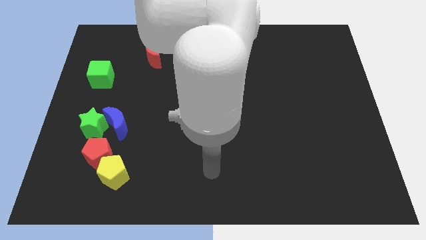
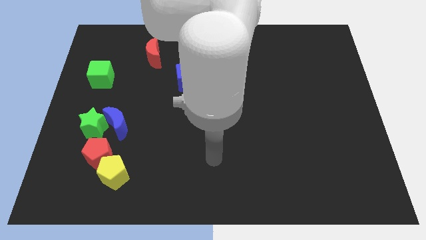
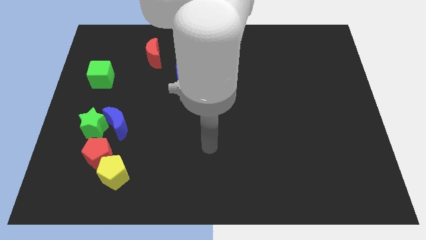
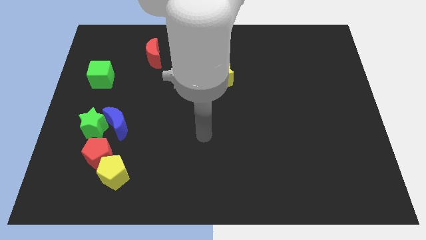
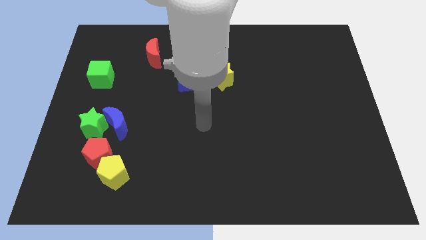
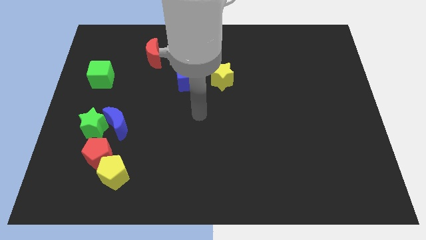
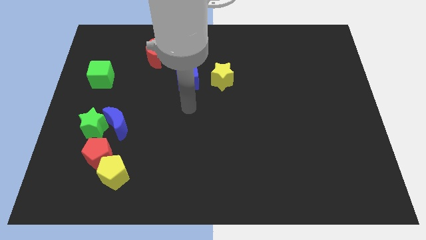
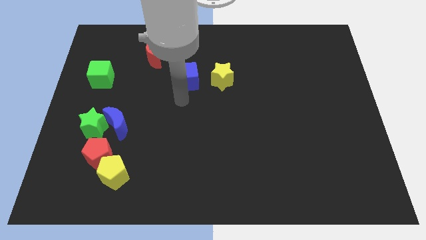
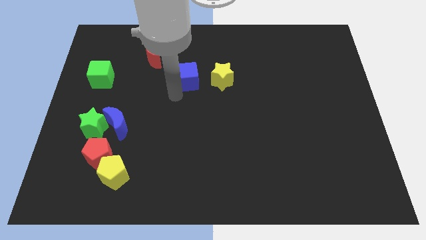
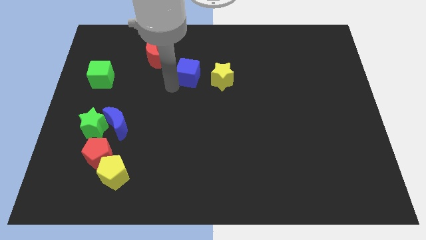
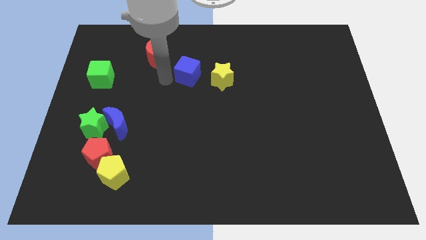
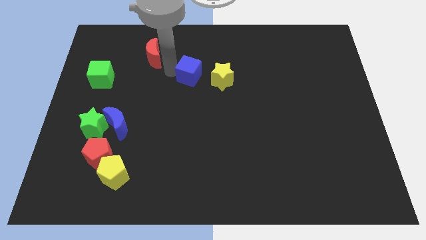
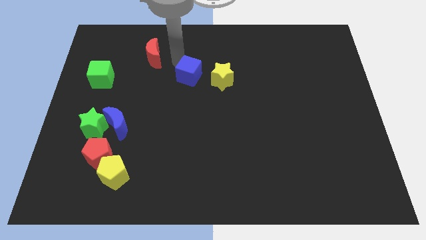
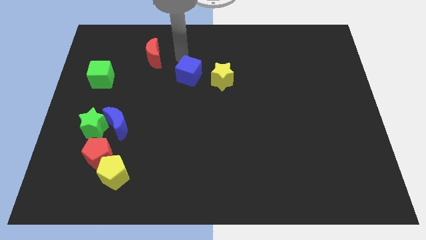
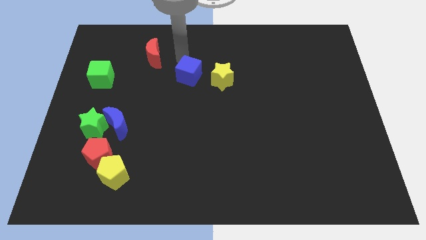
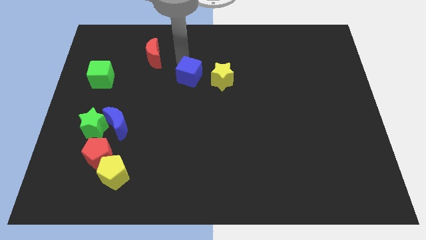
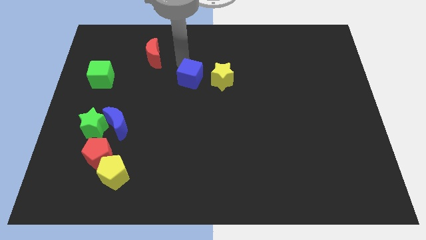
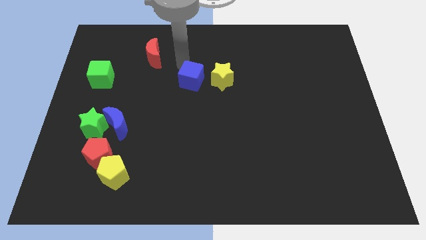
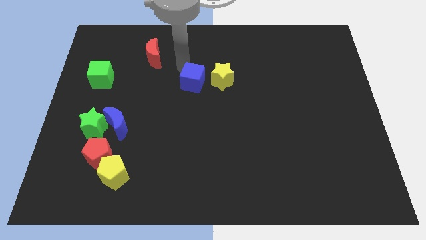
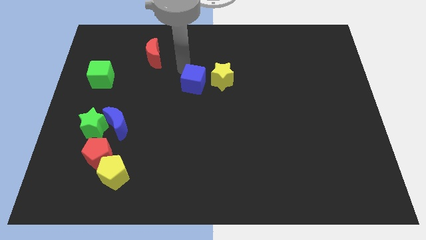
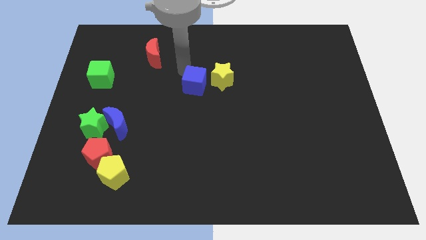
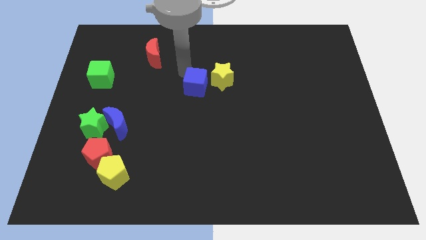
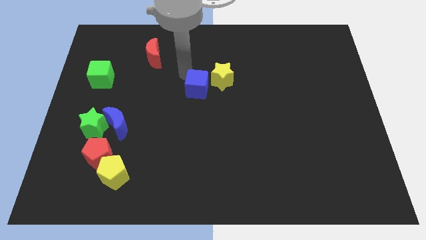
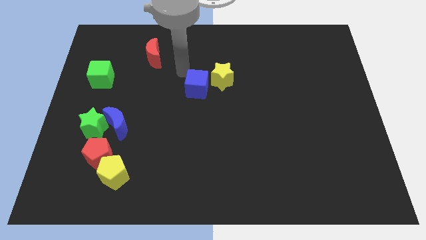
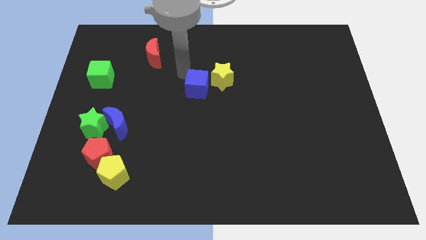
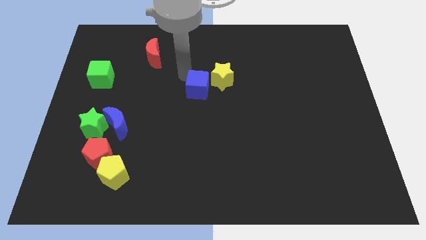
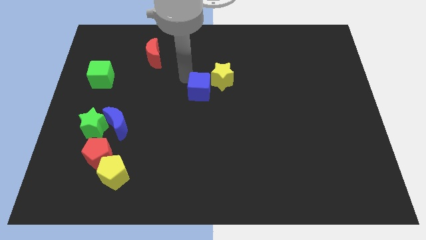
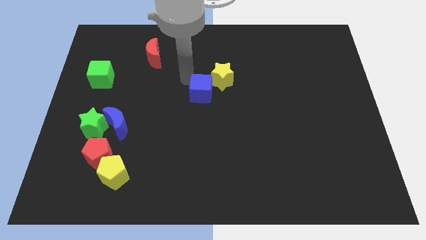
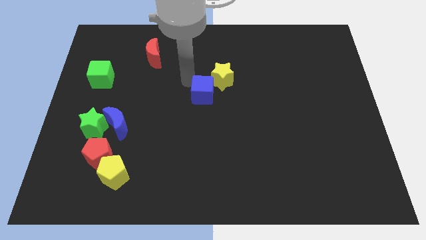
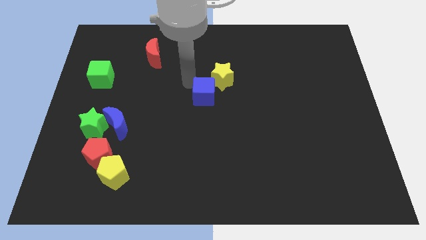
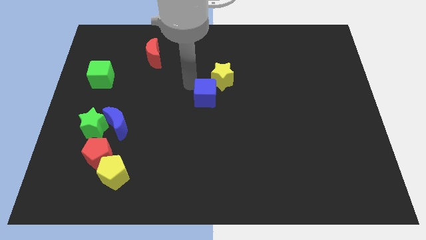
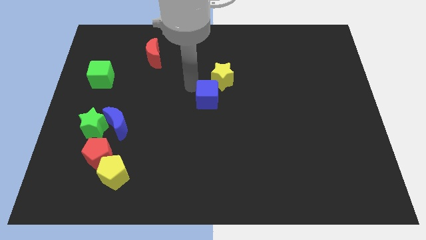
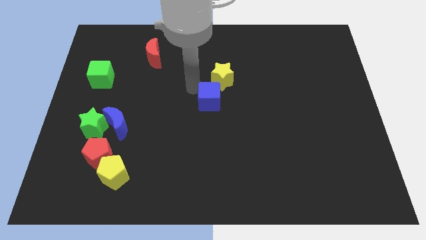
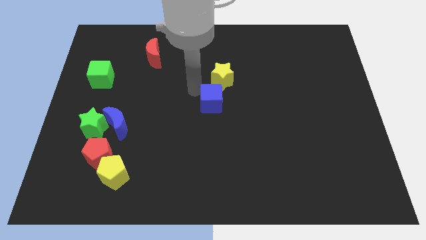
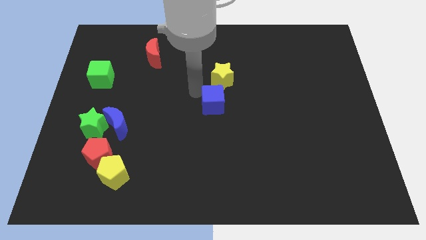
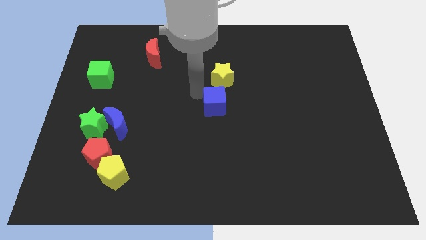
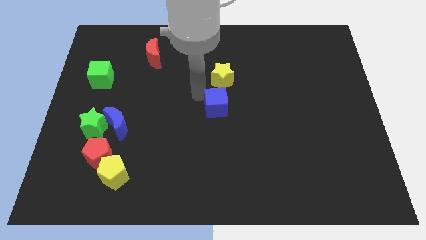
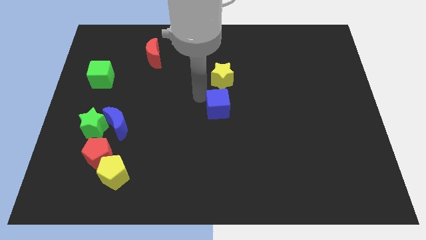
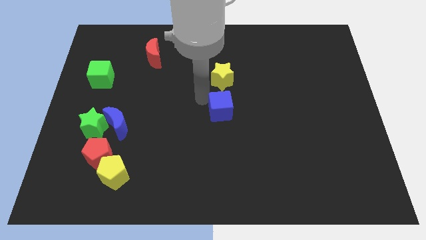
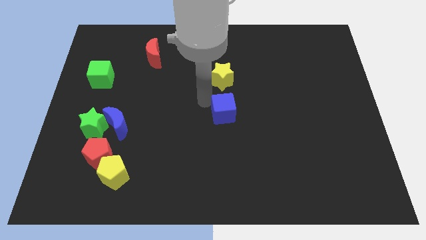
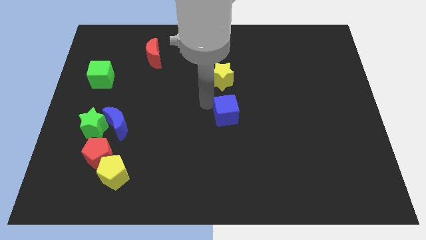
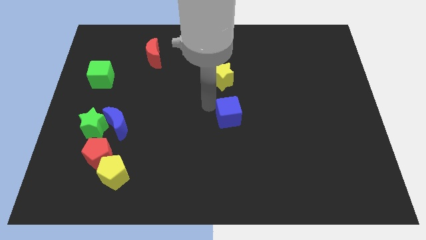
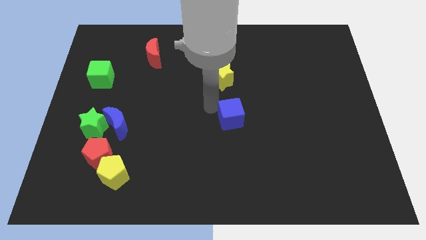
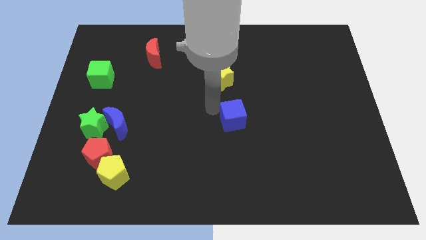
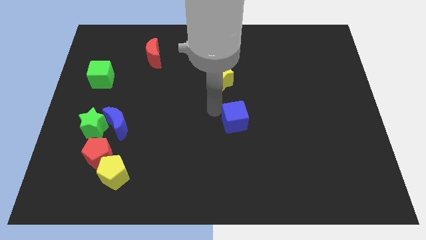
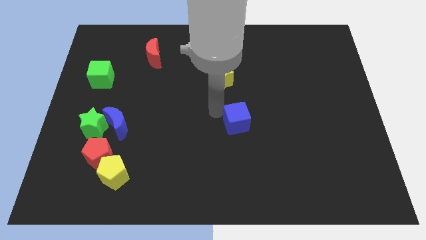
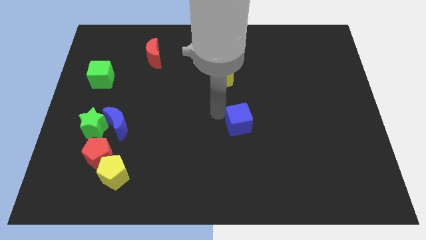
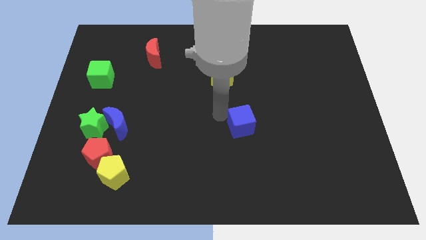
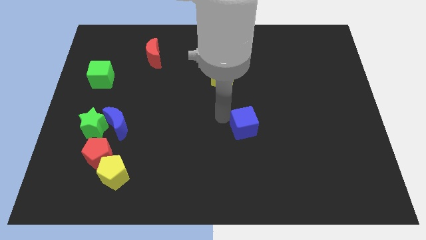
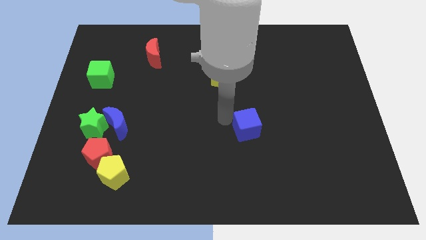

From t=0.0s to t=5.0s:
move the blue cube diagonally downwards and to the right

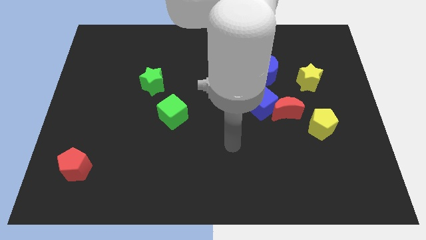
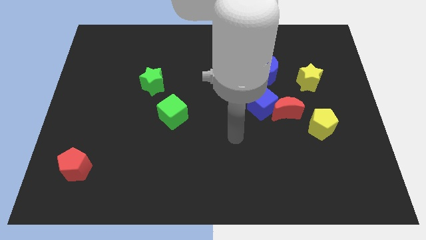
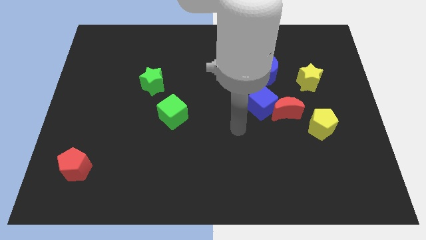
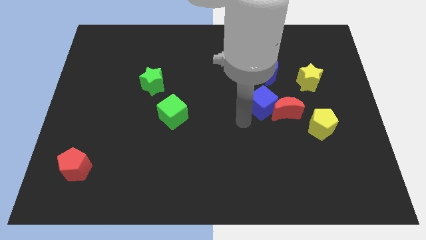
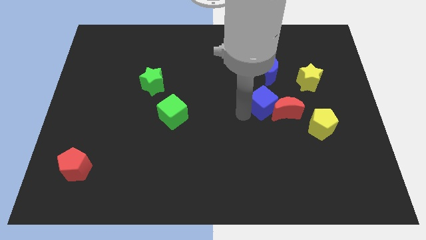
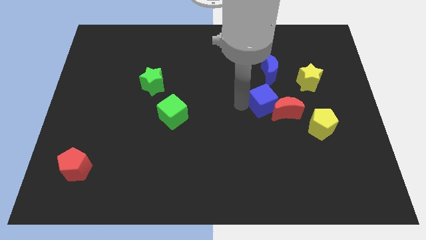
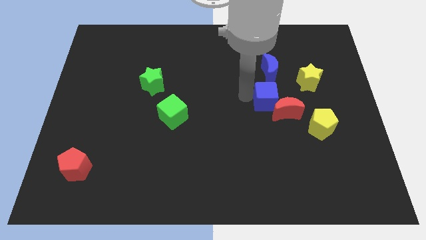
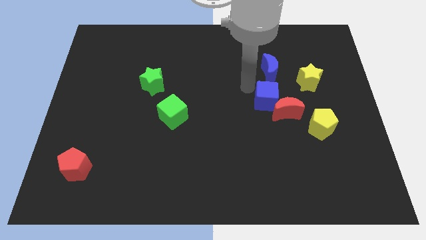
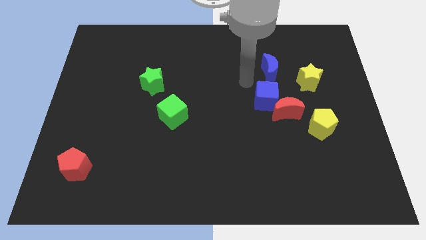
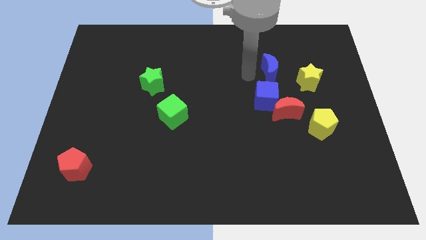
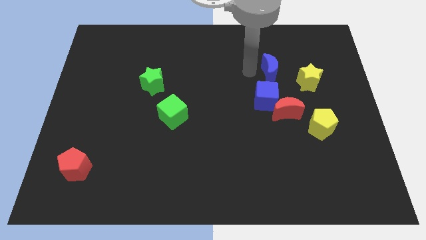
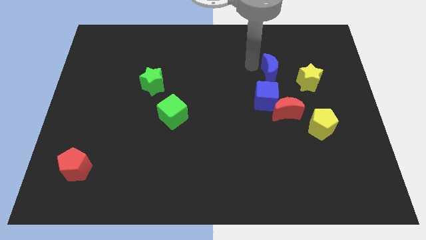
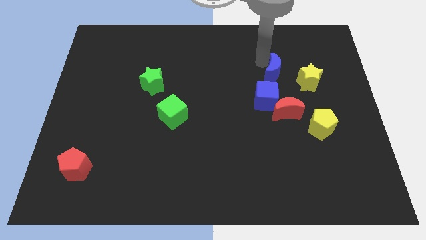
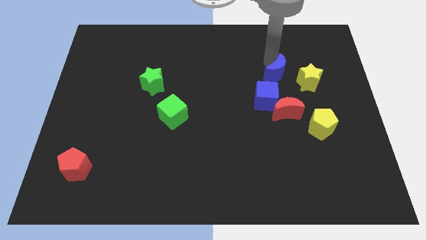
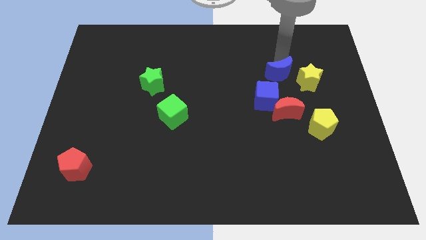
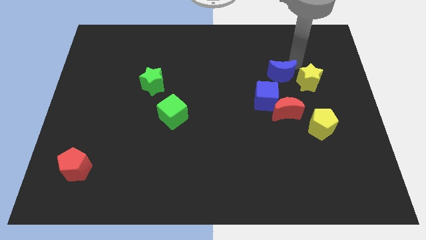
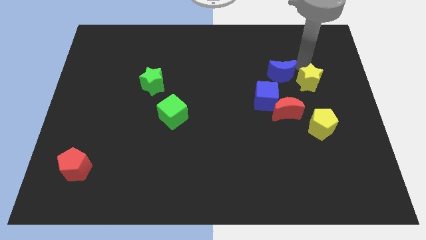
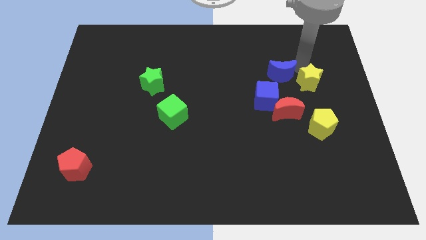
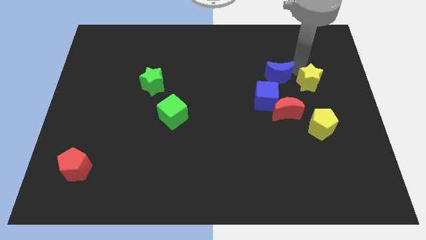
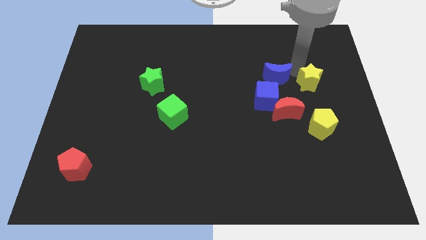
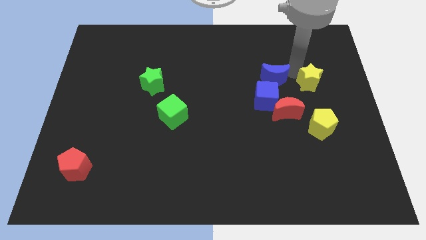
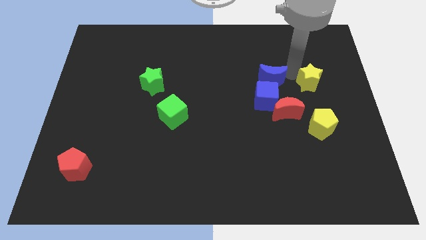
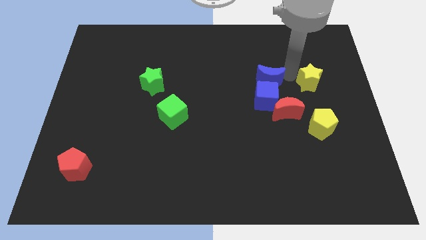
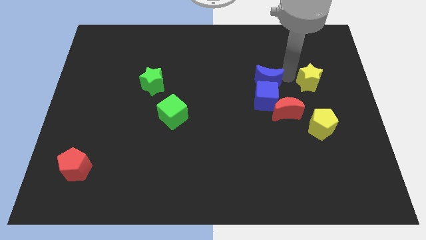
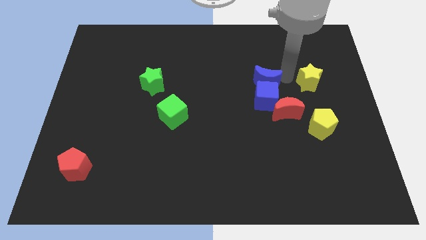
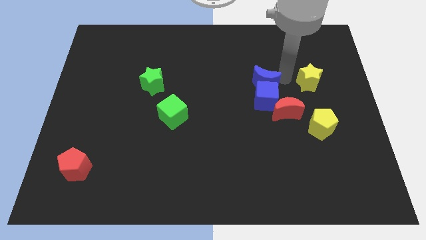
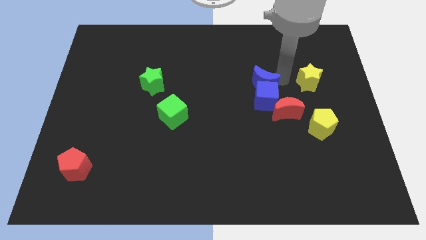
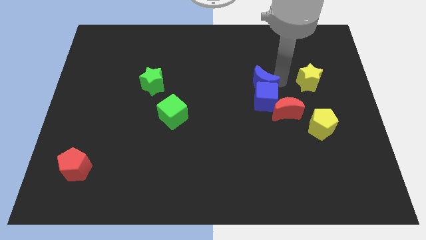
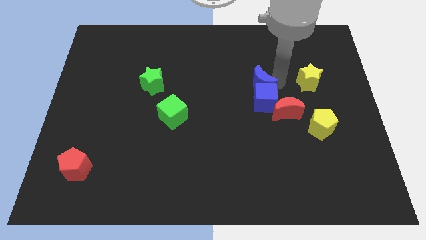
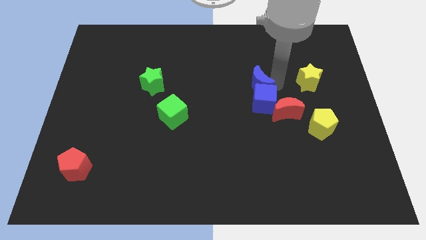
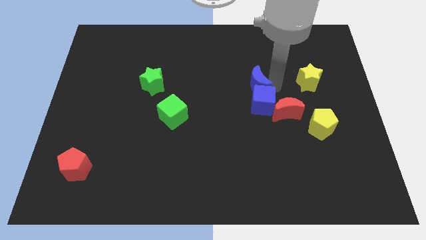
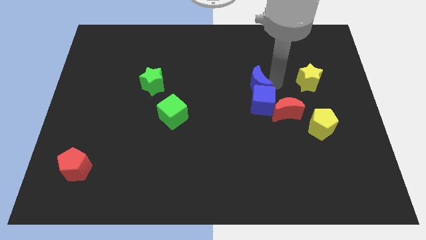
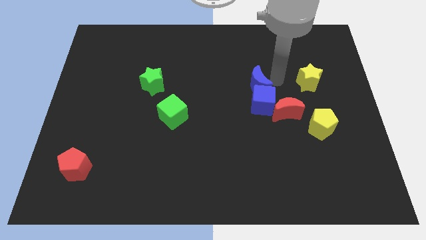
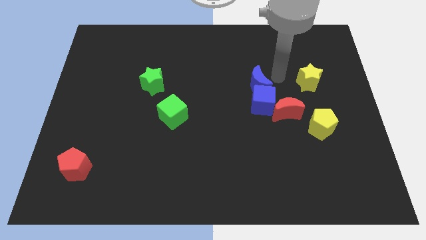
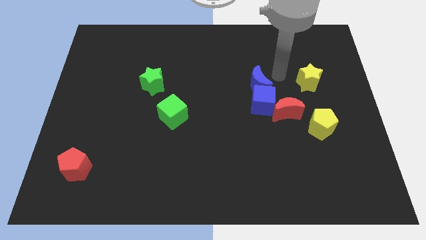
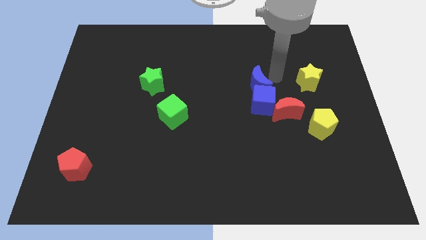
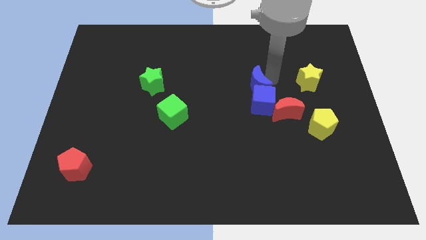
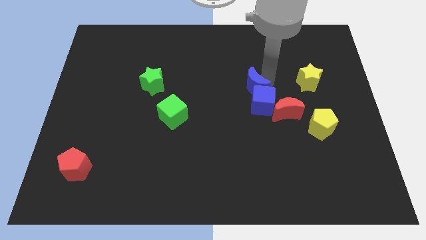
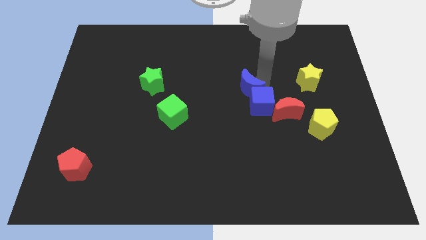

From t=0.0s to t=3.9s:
push the blue moon down and left a little
